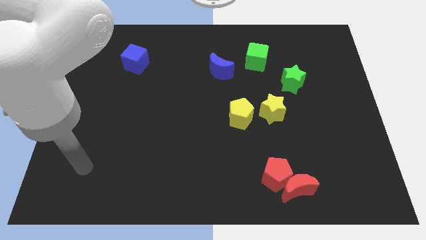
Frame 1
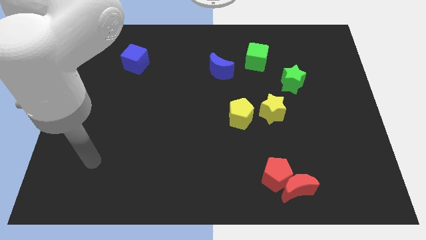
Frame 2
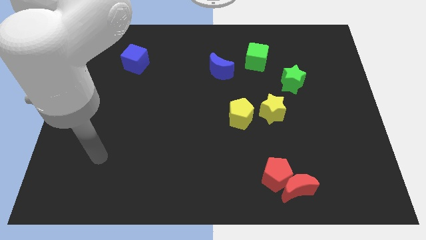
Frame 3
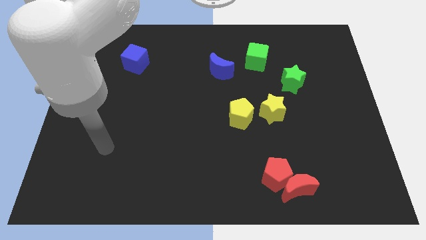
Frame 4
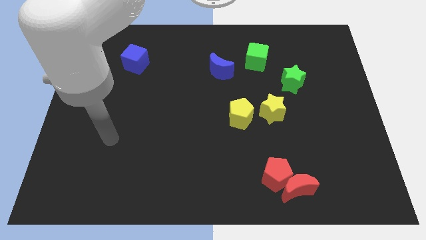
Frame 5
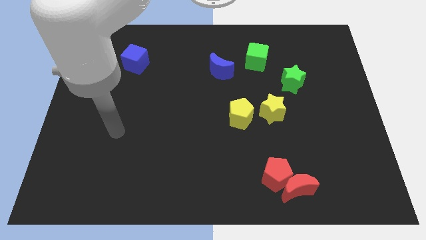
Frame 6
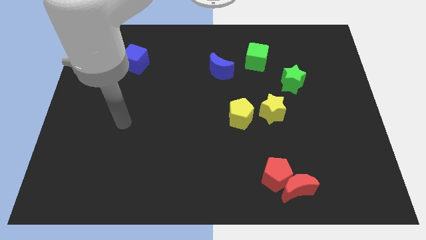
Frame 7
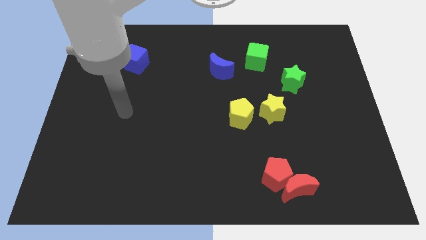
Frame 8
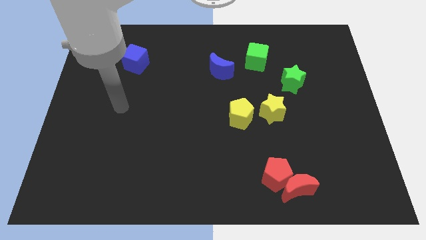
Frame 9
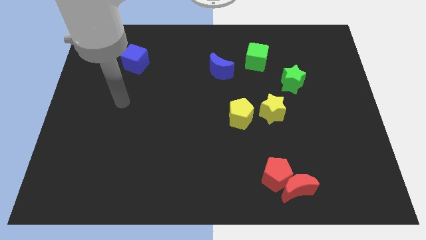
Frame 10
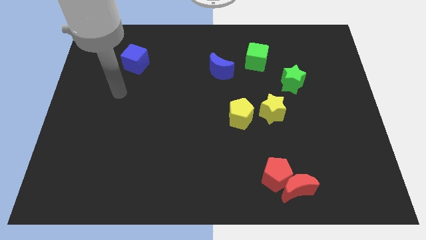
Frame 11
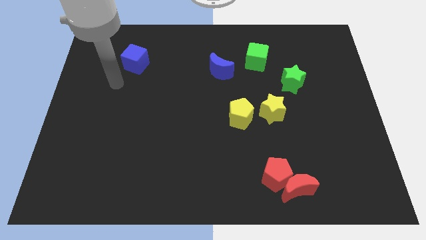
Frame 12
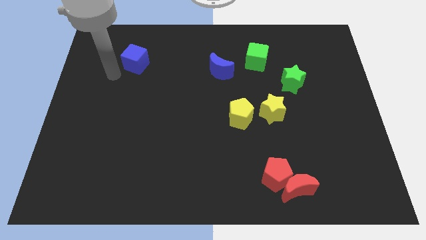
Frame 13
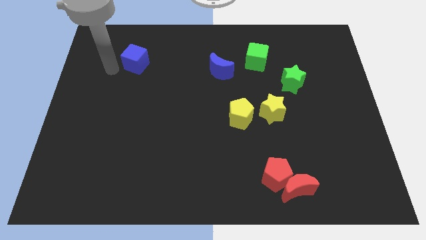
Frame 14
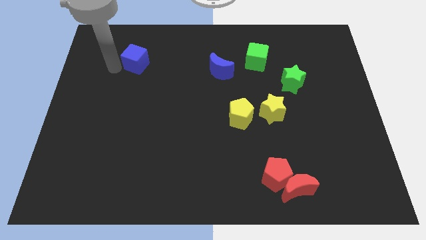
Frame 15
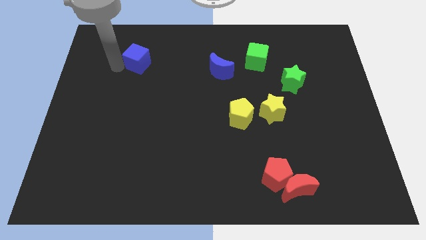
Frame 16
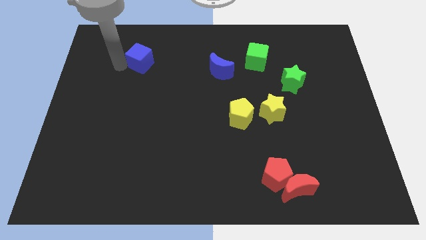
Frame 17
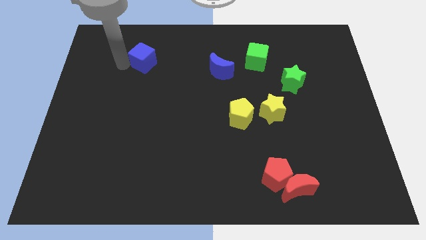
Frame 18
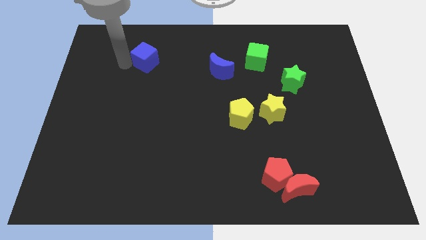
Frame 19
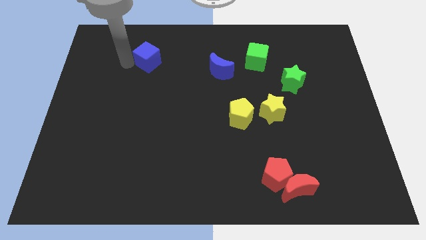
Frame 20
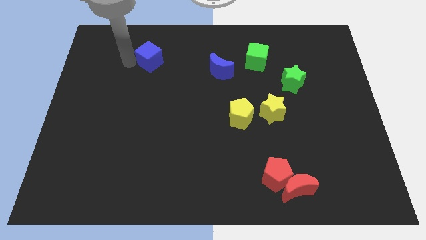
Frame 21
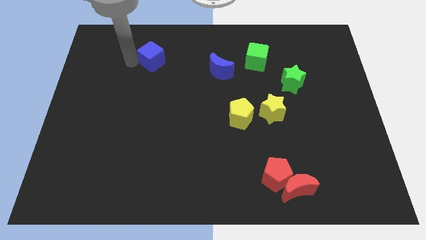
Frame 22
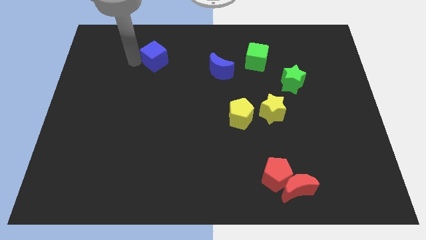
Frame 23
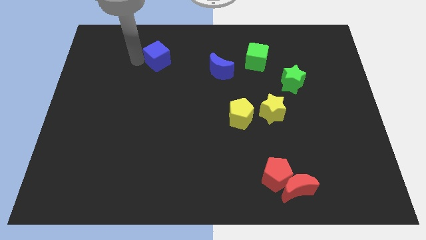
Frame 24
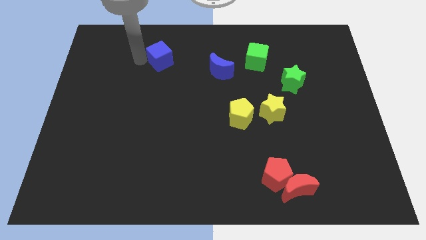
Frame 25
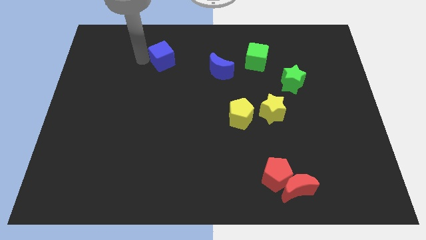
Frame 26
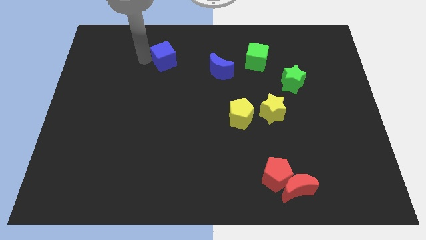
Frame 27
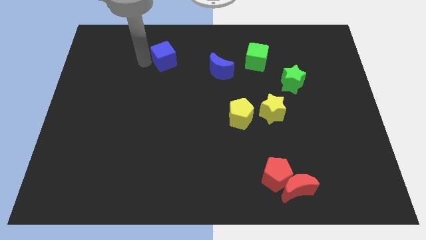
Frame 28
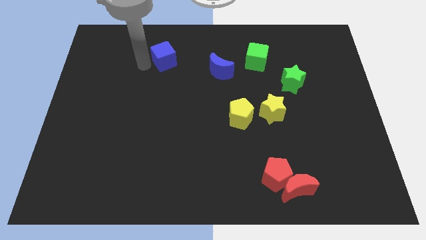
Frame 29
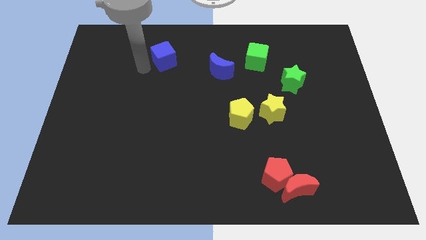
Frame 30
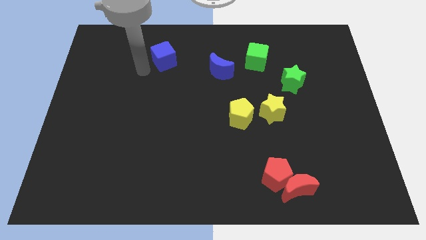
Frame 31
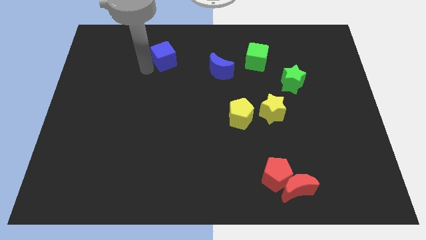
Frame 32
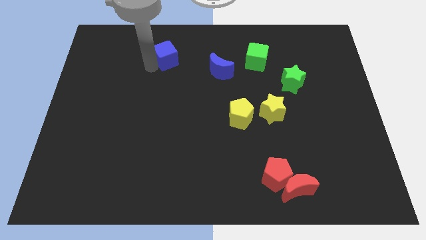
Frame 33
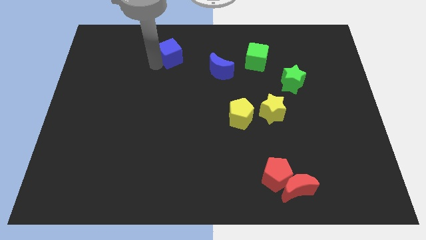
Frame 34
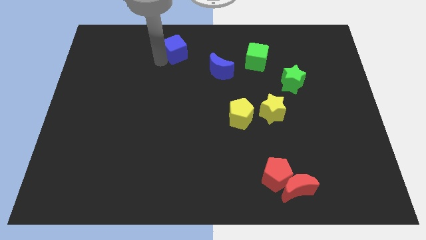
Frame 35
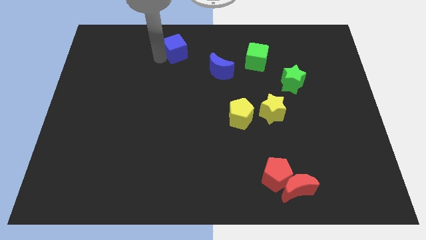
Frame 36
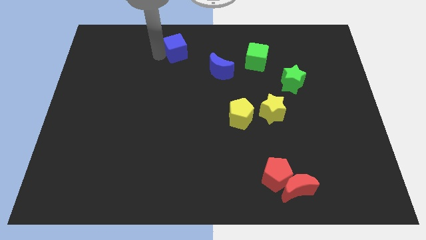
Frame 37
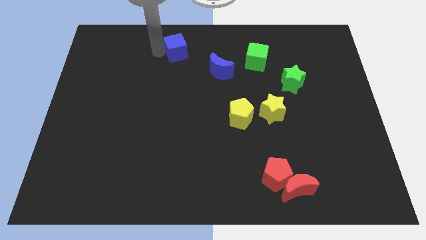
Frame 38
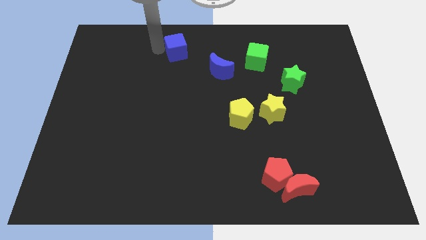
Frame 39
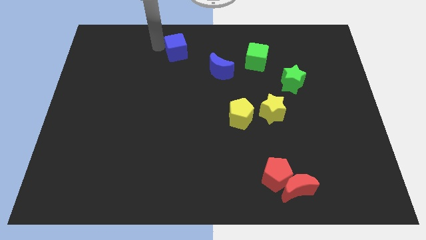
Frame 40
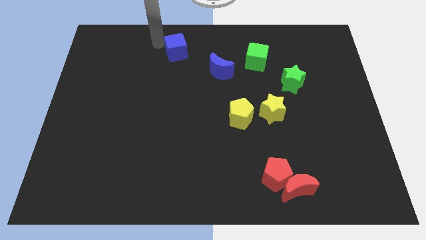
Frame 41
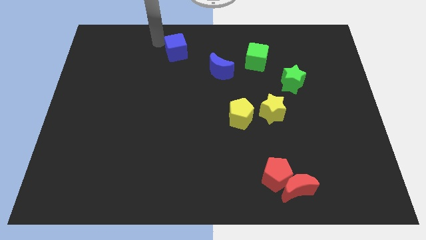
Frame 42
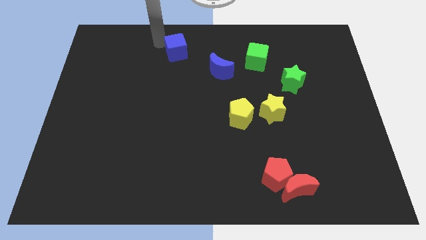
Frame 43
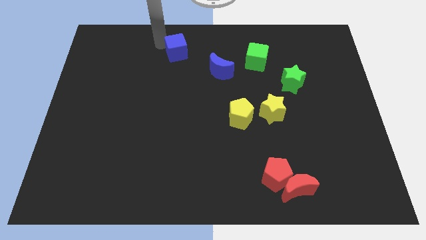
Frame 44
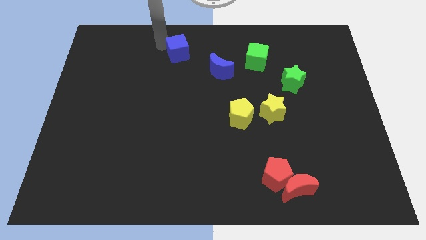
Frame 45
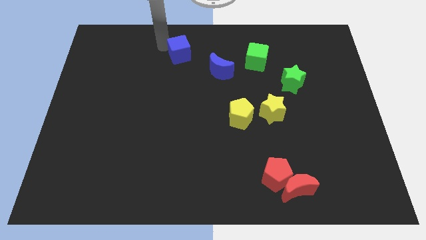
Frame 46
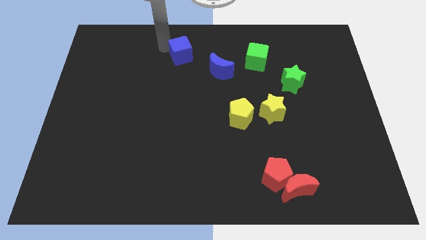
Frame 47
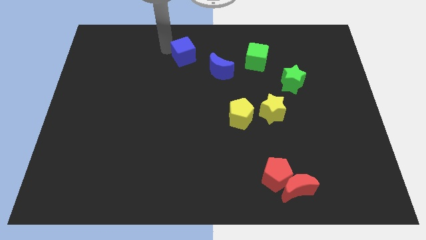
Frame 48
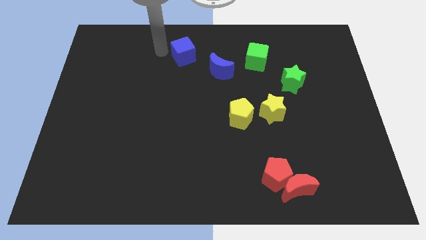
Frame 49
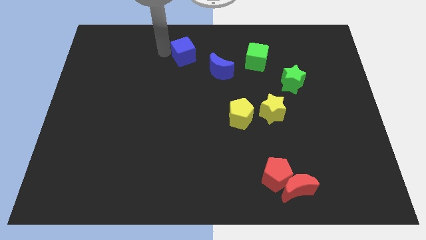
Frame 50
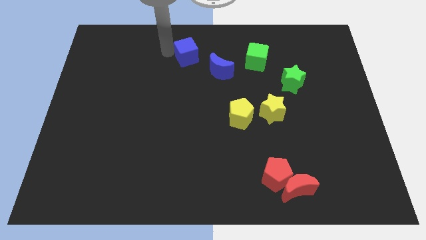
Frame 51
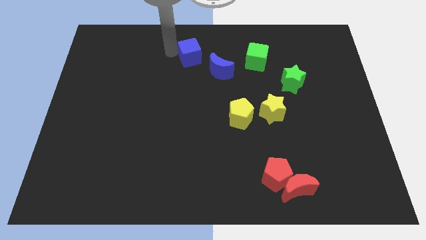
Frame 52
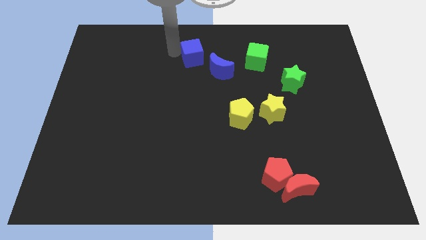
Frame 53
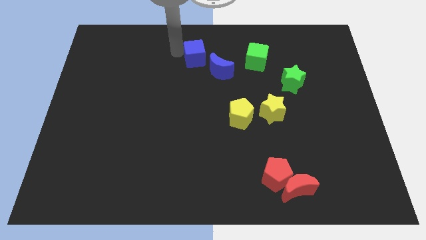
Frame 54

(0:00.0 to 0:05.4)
move the blue cube just left of the green cube

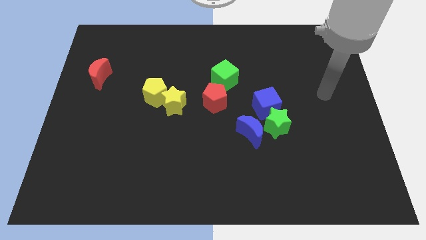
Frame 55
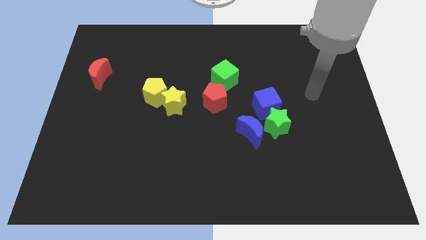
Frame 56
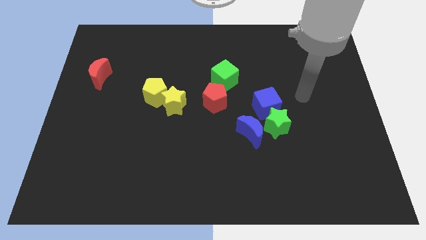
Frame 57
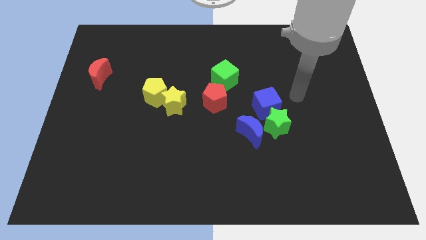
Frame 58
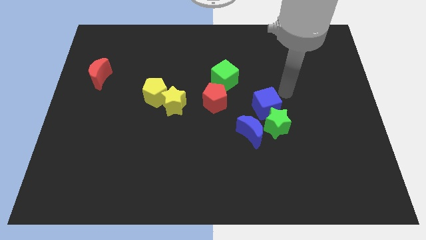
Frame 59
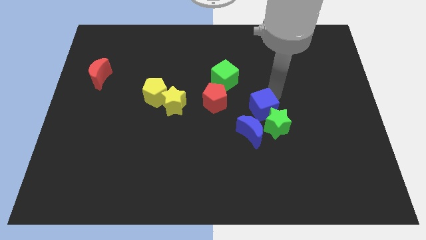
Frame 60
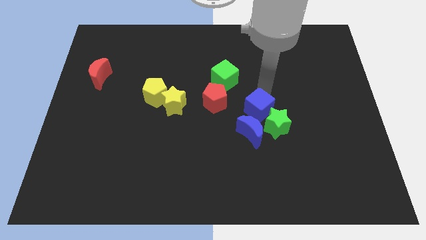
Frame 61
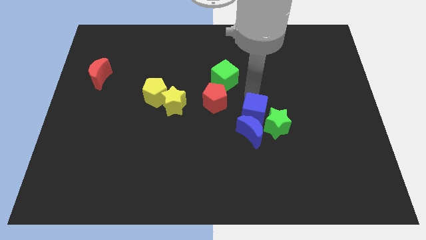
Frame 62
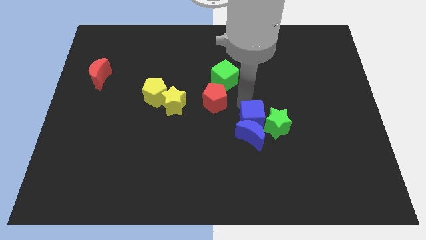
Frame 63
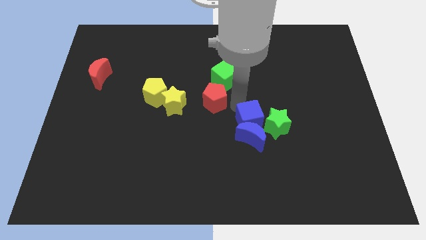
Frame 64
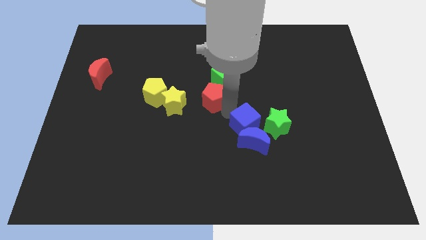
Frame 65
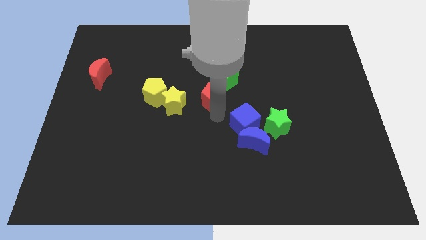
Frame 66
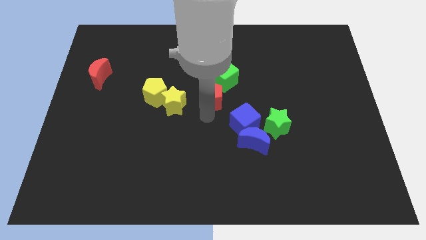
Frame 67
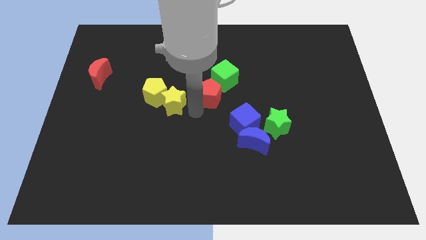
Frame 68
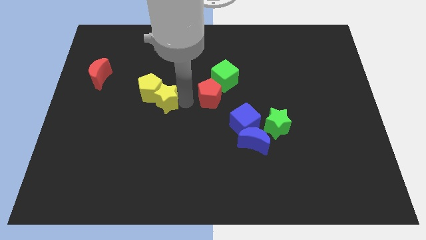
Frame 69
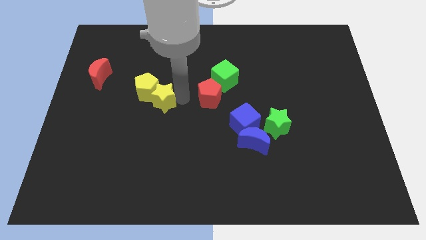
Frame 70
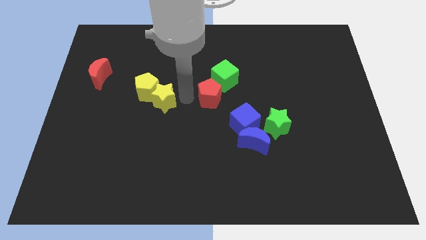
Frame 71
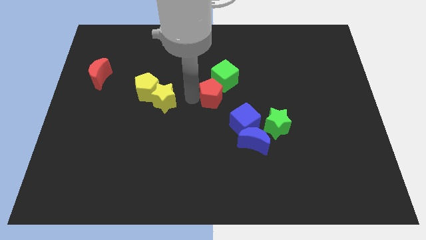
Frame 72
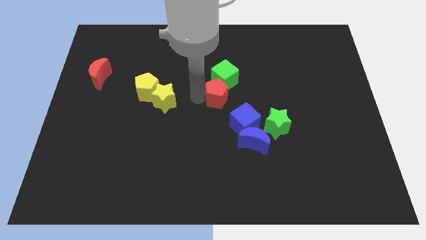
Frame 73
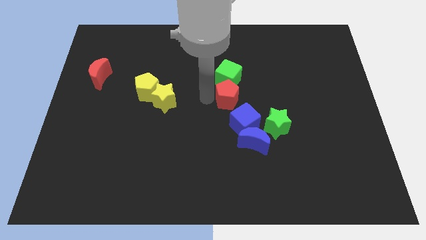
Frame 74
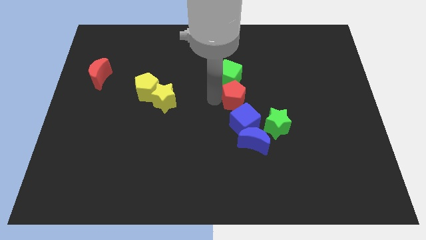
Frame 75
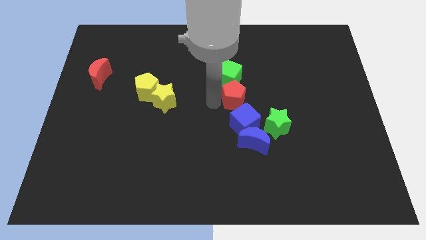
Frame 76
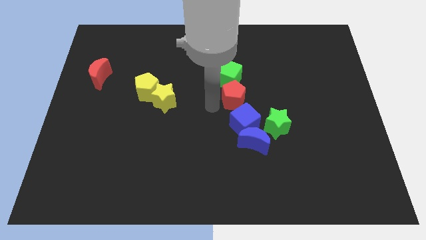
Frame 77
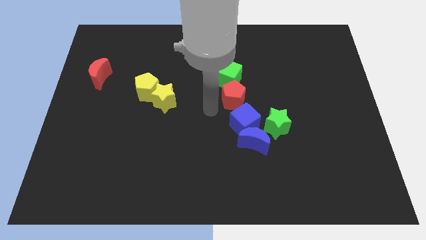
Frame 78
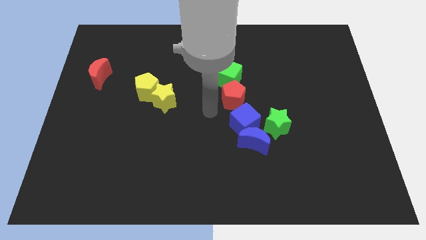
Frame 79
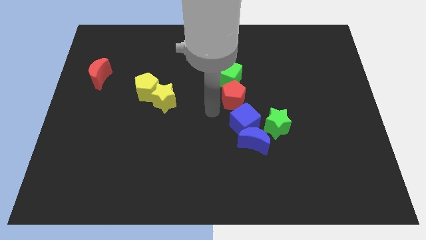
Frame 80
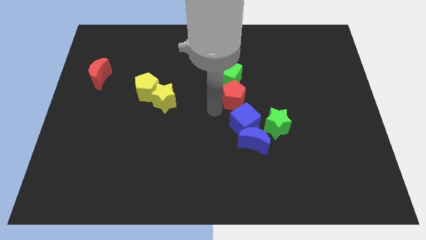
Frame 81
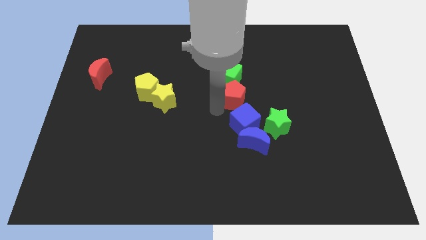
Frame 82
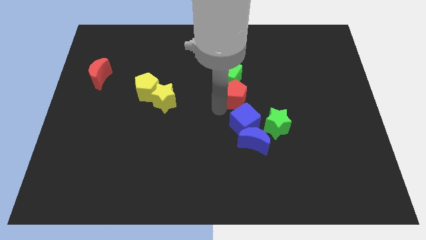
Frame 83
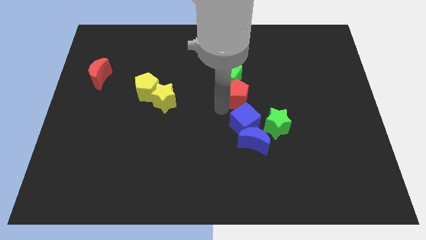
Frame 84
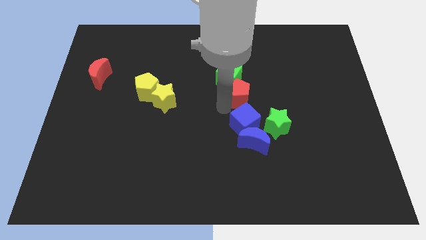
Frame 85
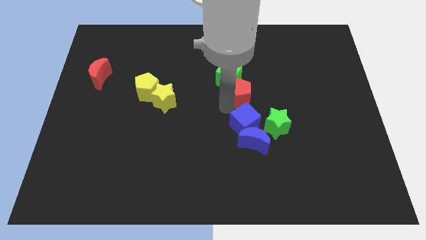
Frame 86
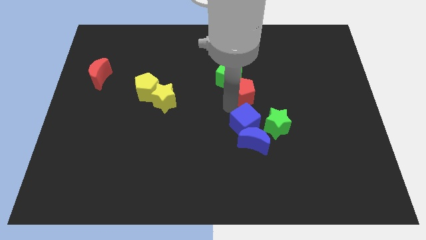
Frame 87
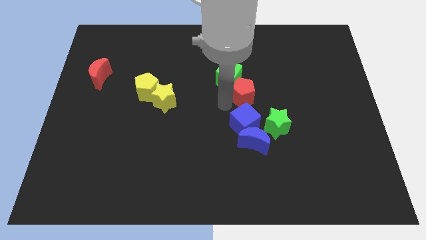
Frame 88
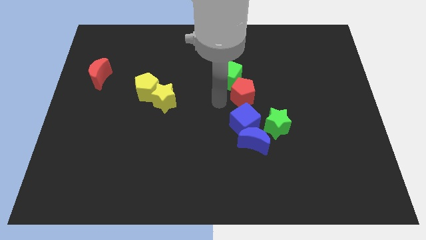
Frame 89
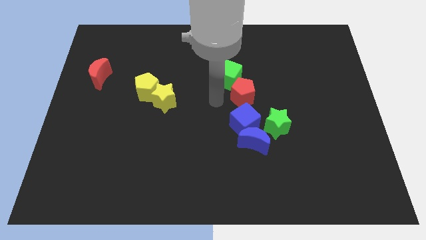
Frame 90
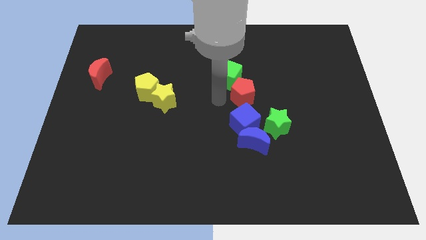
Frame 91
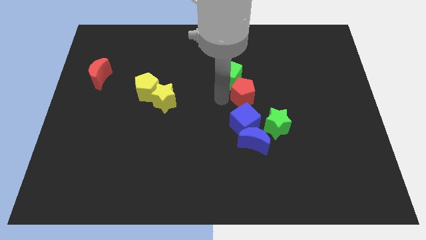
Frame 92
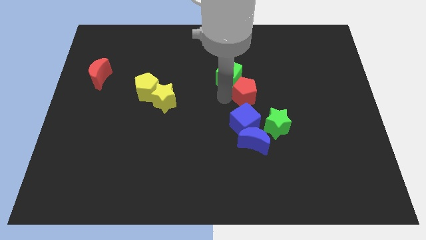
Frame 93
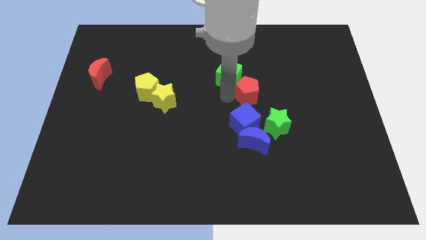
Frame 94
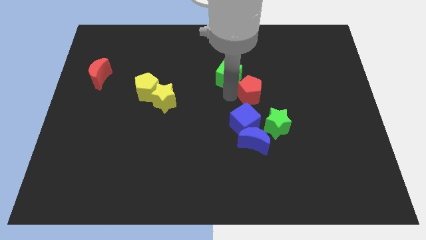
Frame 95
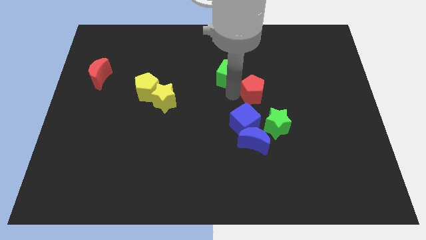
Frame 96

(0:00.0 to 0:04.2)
slide the red pentagon to the top of the green star
